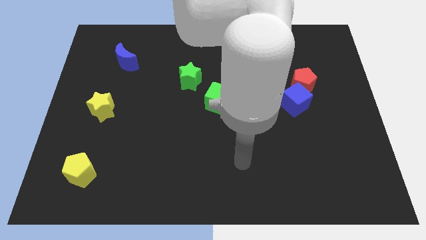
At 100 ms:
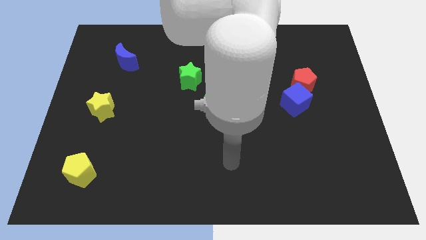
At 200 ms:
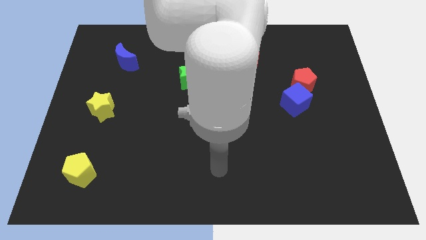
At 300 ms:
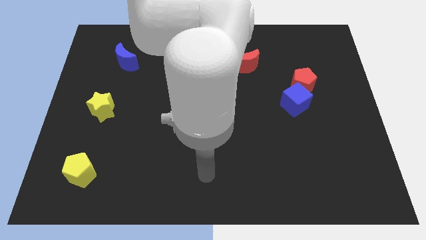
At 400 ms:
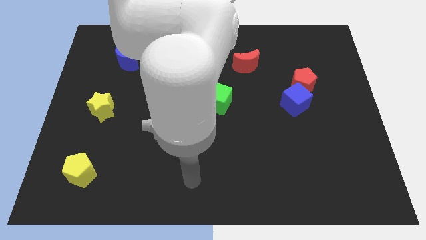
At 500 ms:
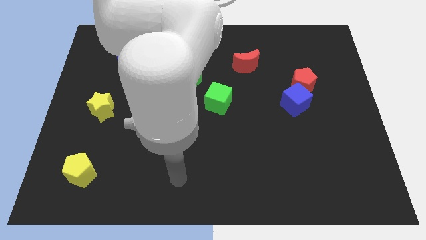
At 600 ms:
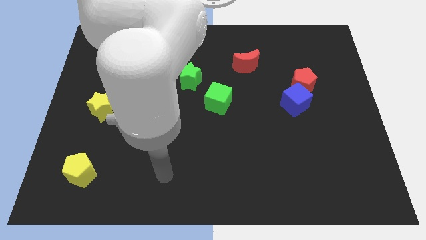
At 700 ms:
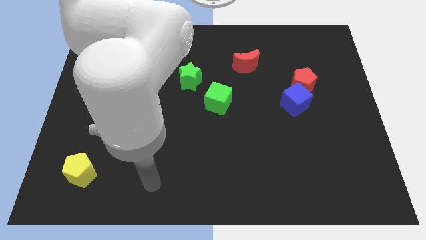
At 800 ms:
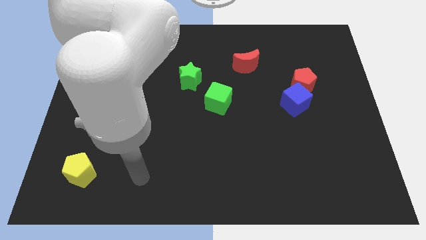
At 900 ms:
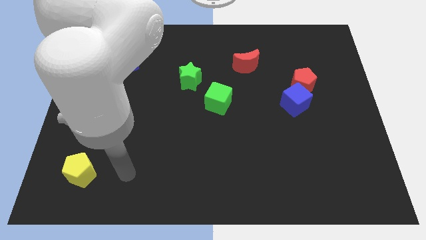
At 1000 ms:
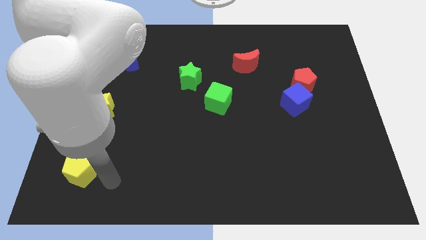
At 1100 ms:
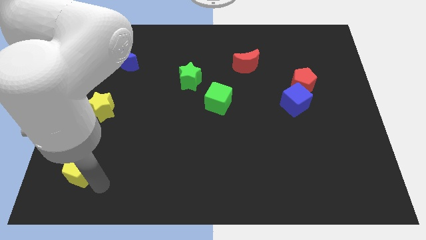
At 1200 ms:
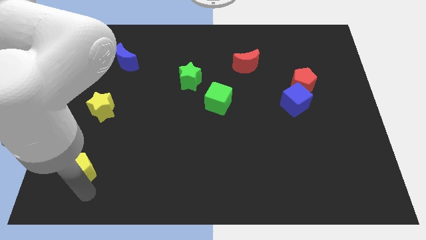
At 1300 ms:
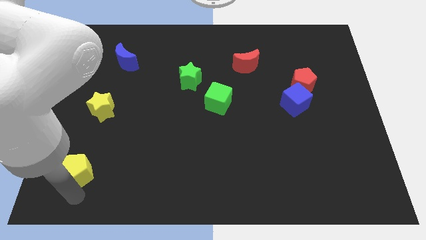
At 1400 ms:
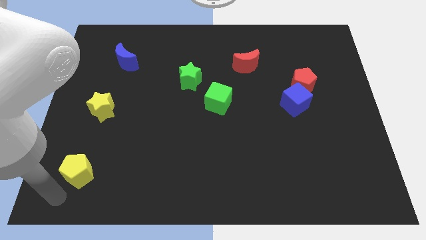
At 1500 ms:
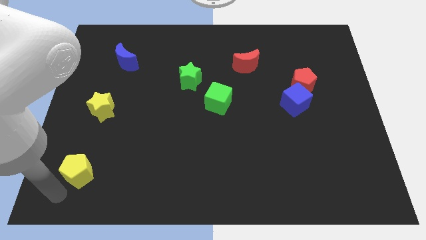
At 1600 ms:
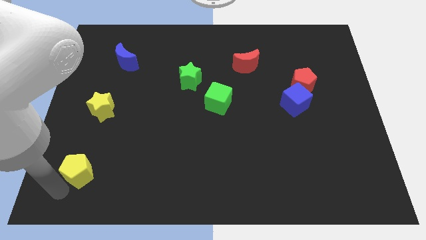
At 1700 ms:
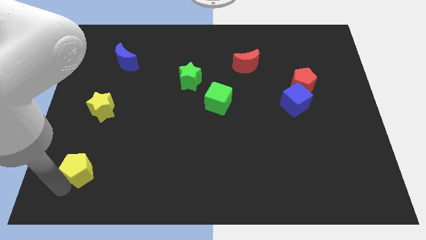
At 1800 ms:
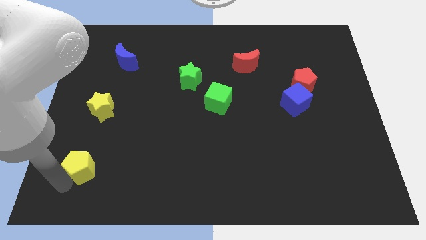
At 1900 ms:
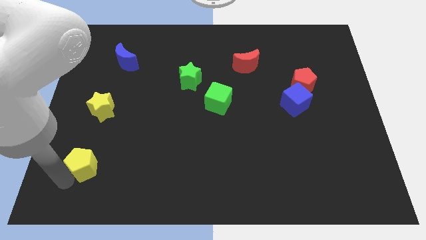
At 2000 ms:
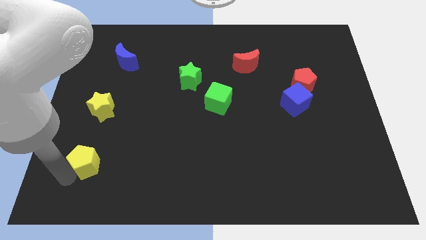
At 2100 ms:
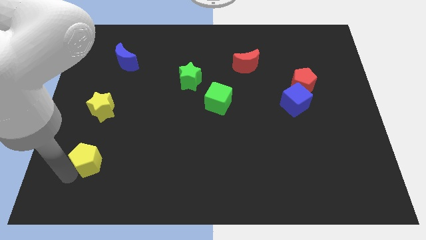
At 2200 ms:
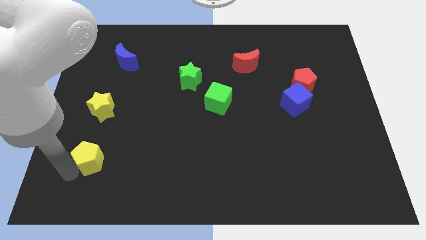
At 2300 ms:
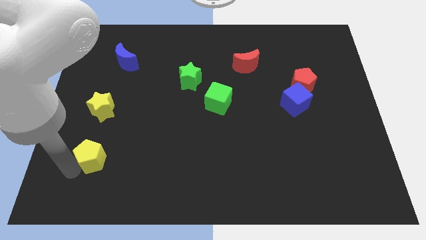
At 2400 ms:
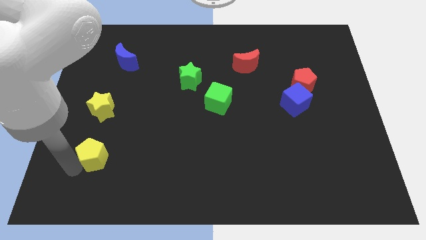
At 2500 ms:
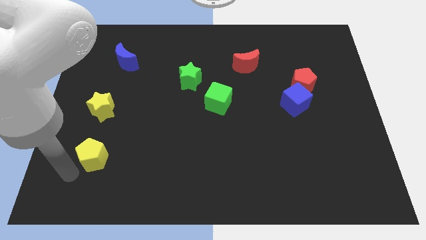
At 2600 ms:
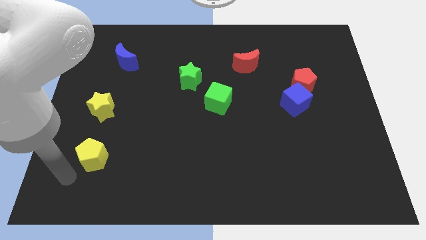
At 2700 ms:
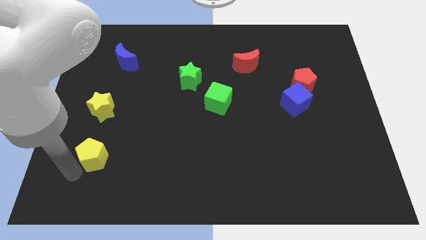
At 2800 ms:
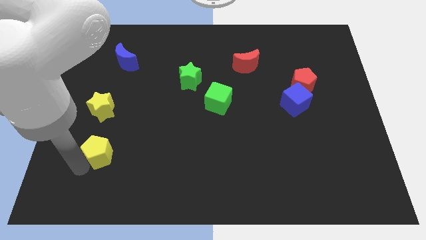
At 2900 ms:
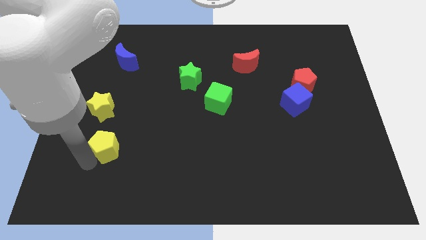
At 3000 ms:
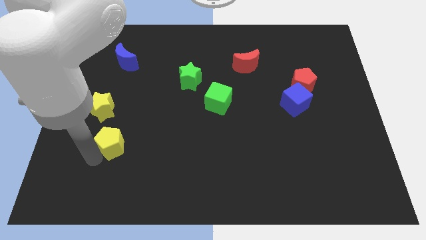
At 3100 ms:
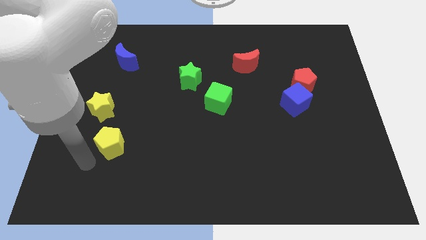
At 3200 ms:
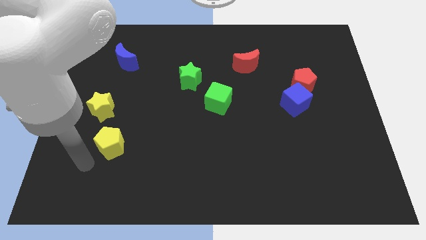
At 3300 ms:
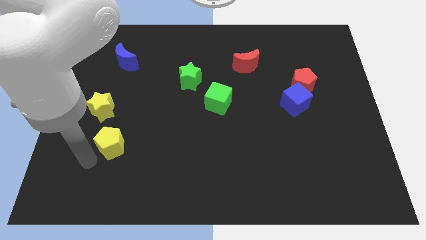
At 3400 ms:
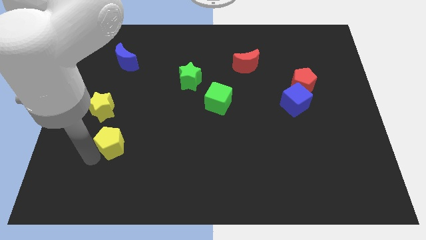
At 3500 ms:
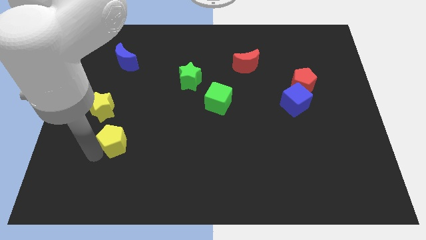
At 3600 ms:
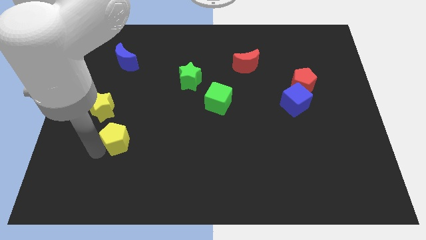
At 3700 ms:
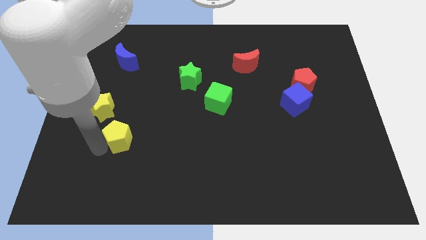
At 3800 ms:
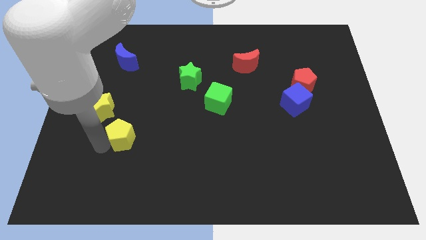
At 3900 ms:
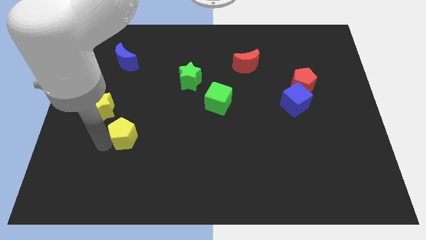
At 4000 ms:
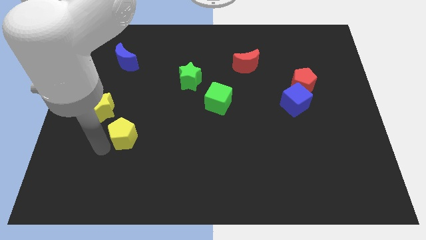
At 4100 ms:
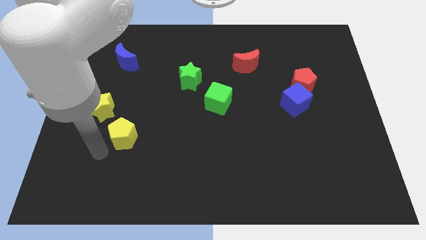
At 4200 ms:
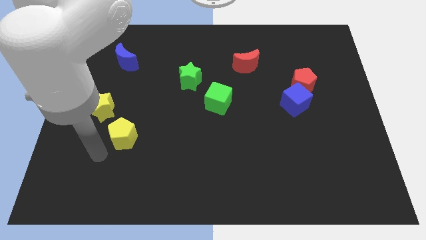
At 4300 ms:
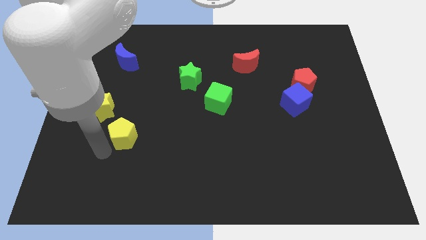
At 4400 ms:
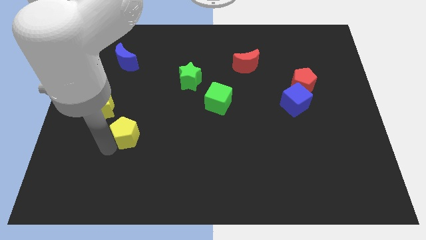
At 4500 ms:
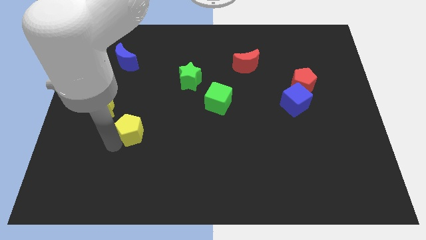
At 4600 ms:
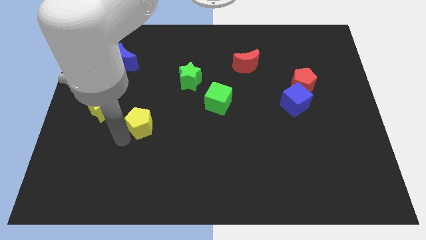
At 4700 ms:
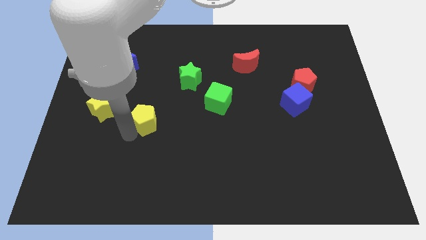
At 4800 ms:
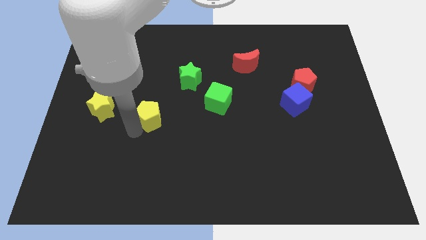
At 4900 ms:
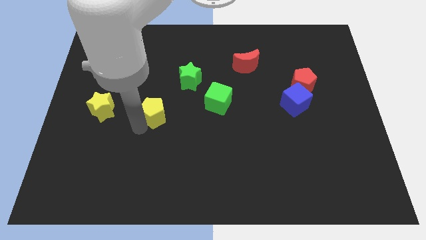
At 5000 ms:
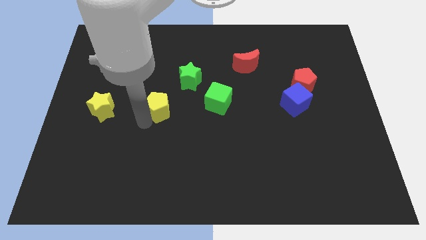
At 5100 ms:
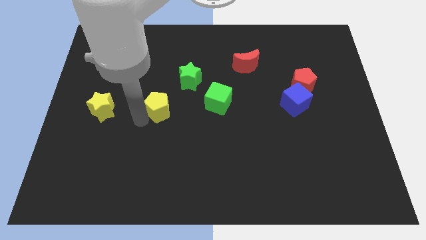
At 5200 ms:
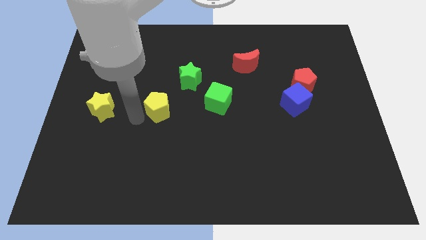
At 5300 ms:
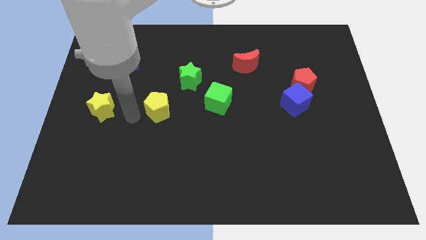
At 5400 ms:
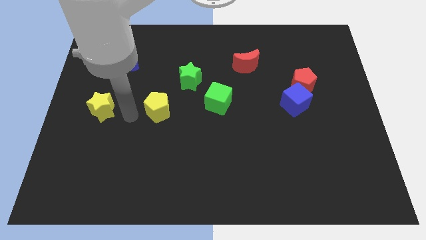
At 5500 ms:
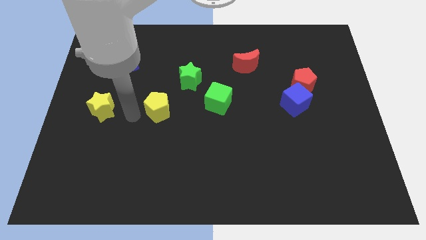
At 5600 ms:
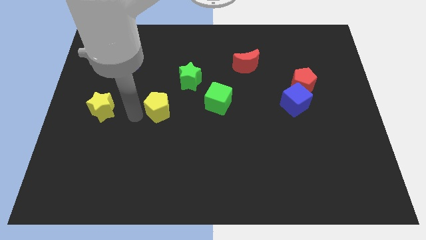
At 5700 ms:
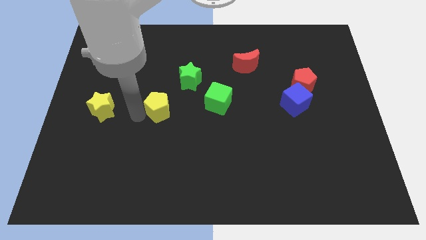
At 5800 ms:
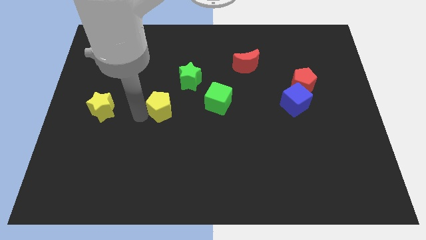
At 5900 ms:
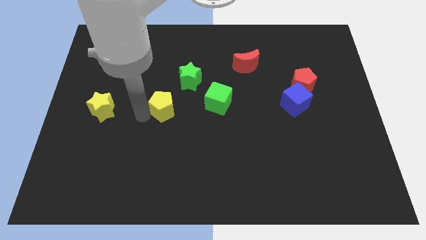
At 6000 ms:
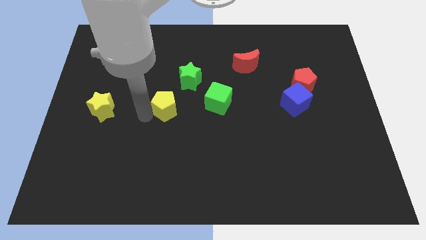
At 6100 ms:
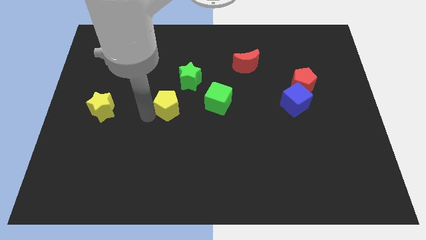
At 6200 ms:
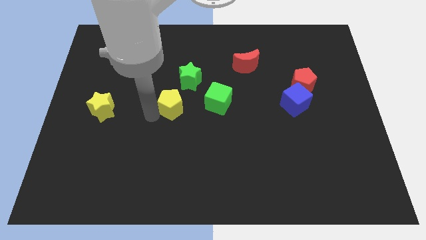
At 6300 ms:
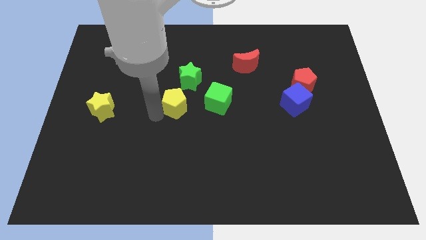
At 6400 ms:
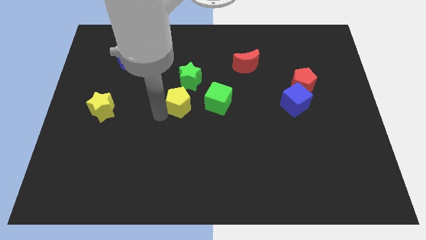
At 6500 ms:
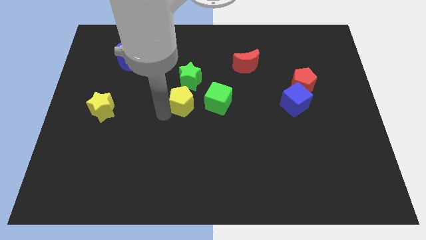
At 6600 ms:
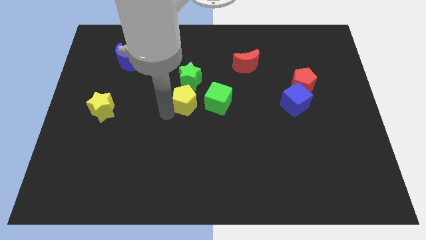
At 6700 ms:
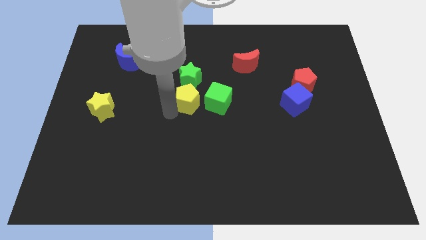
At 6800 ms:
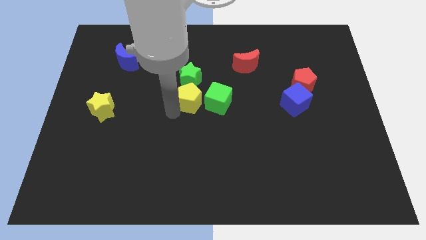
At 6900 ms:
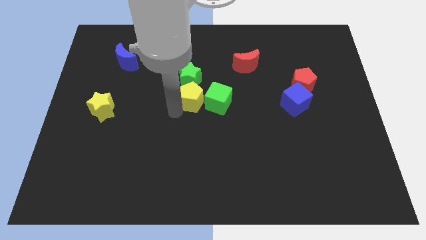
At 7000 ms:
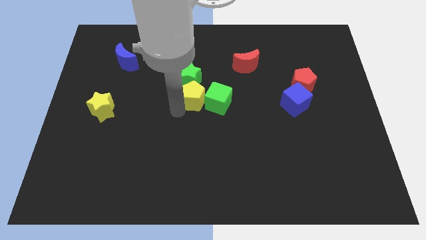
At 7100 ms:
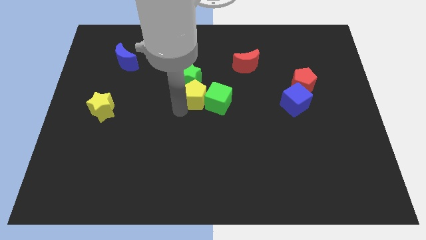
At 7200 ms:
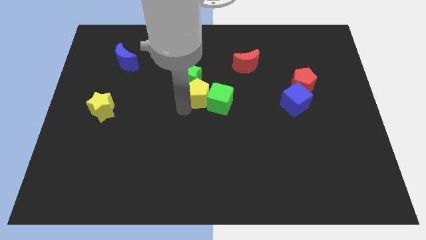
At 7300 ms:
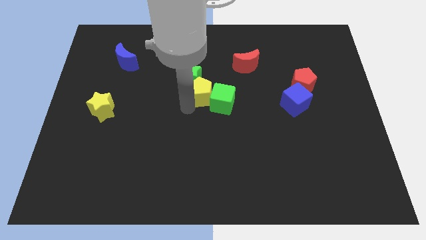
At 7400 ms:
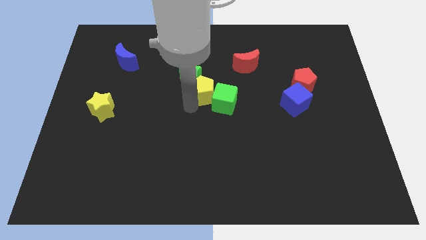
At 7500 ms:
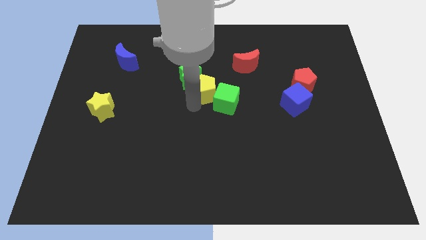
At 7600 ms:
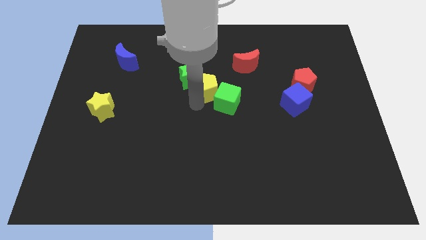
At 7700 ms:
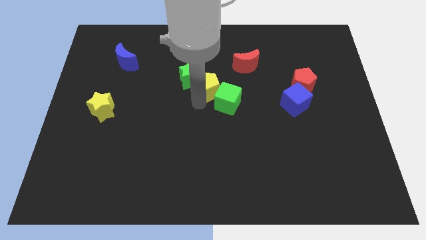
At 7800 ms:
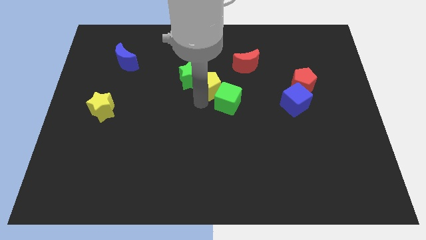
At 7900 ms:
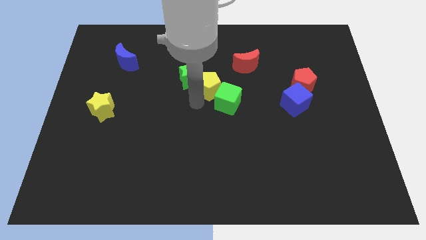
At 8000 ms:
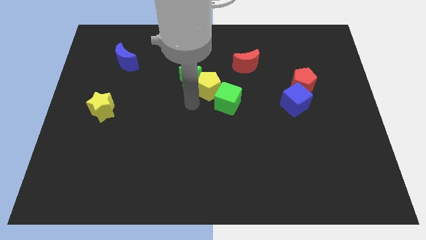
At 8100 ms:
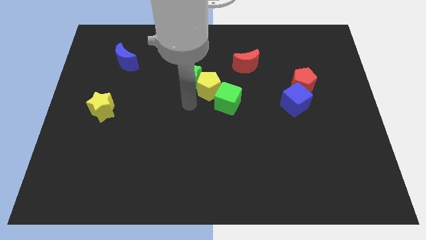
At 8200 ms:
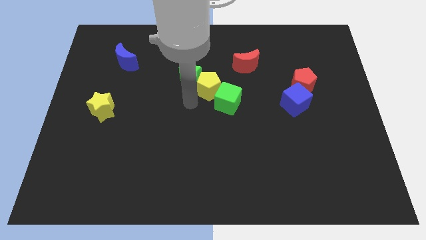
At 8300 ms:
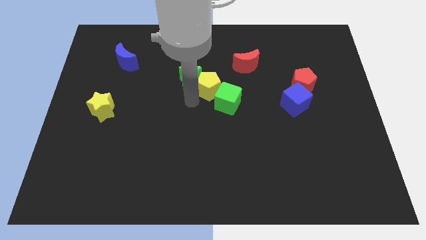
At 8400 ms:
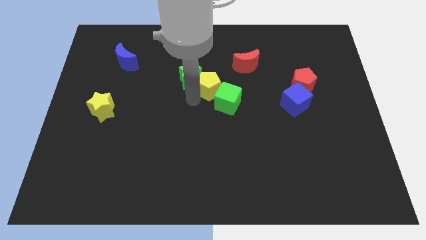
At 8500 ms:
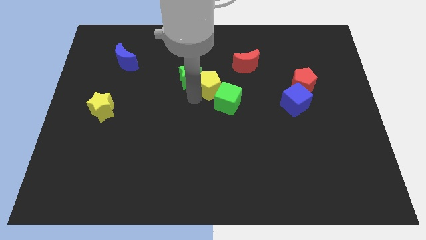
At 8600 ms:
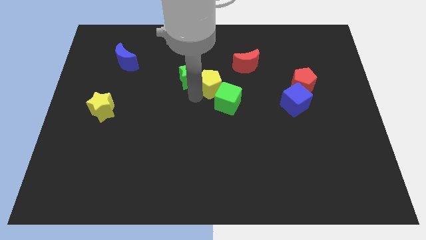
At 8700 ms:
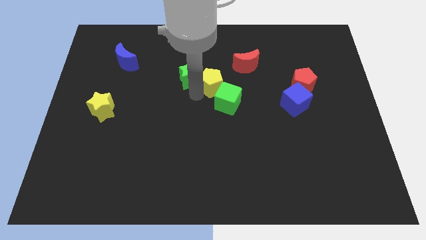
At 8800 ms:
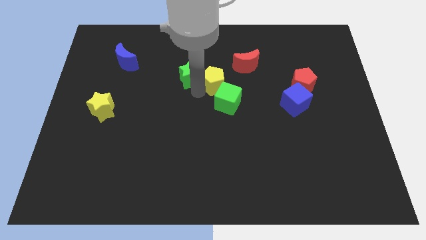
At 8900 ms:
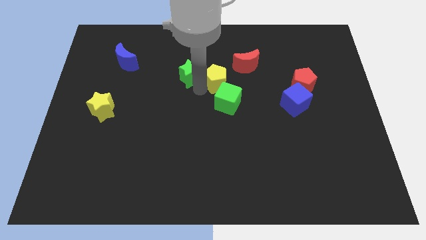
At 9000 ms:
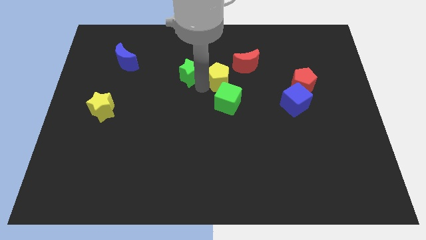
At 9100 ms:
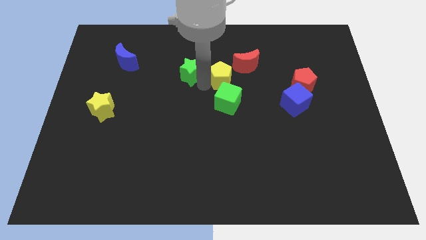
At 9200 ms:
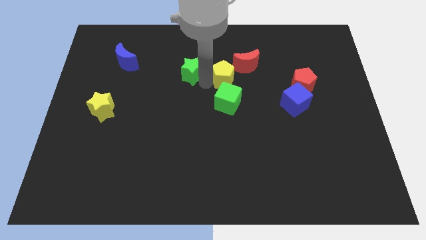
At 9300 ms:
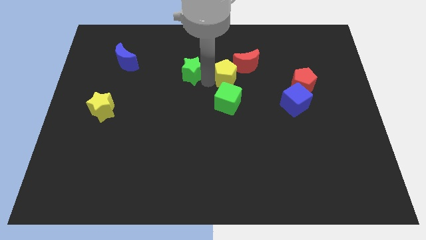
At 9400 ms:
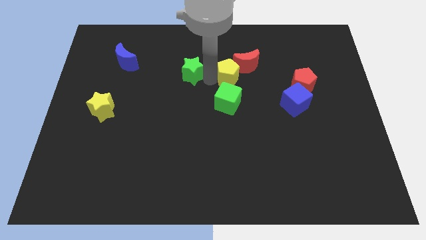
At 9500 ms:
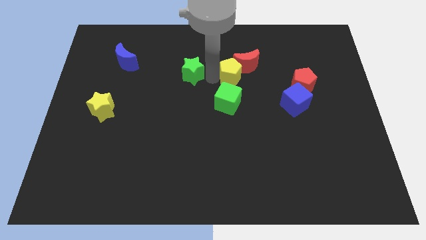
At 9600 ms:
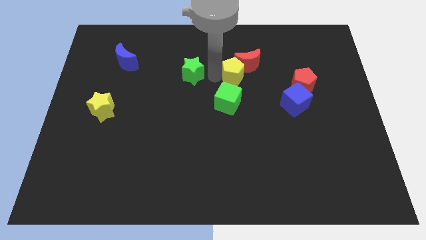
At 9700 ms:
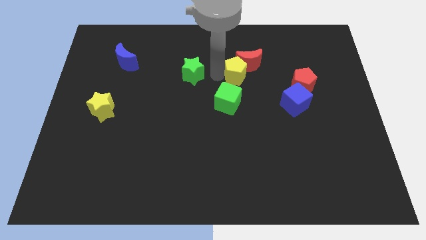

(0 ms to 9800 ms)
push the yellow pentagon diagonally up and to the right of the green cube
